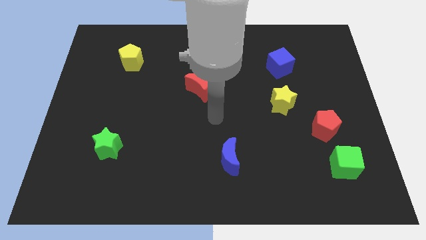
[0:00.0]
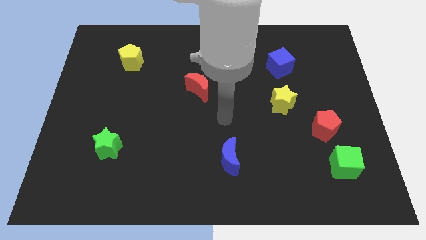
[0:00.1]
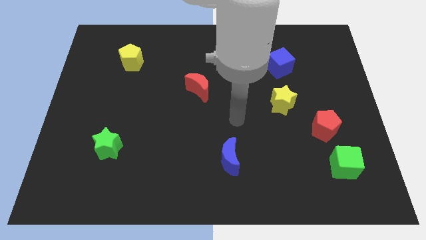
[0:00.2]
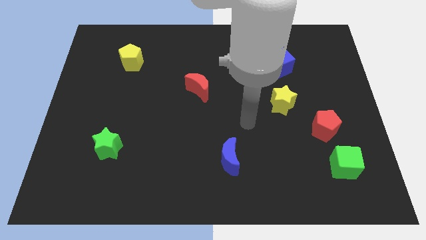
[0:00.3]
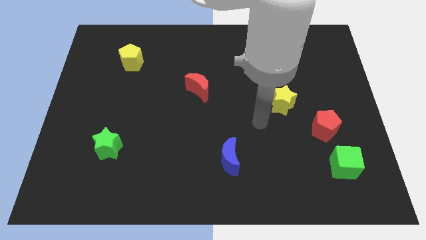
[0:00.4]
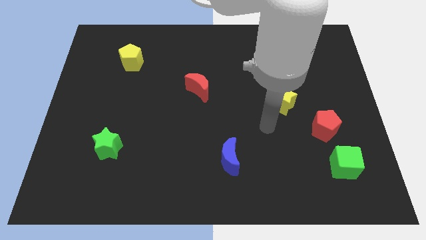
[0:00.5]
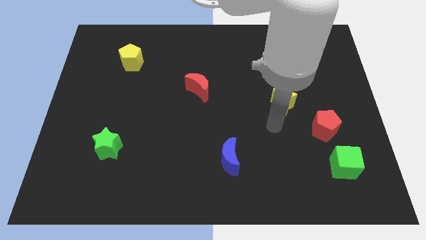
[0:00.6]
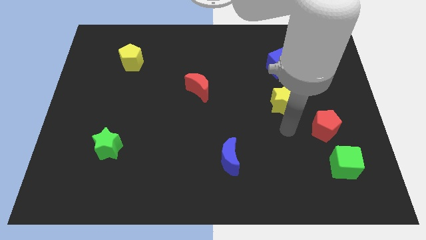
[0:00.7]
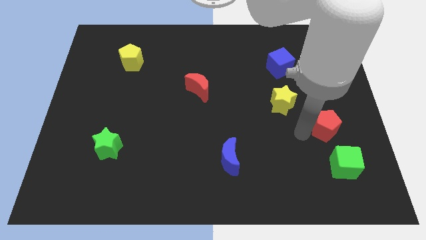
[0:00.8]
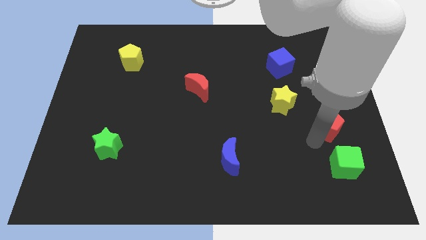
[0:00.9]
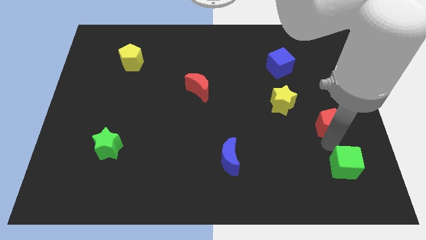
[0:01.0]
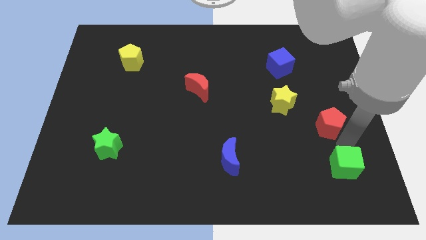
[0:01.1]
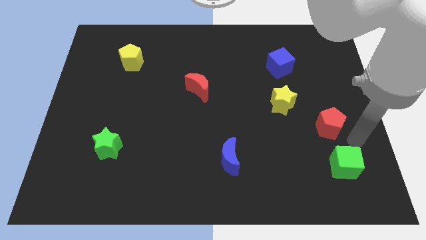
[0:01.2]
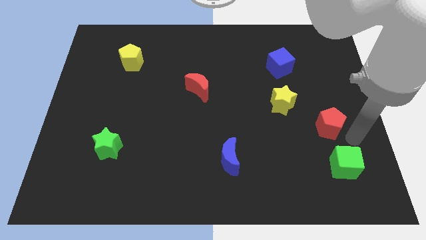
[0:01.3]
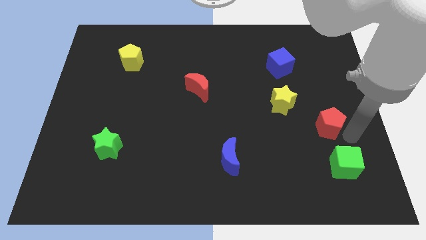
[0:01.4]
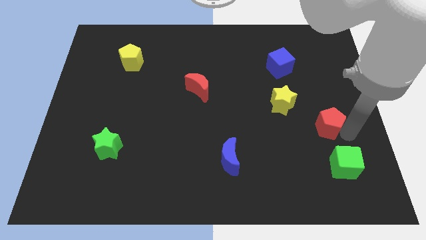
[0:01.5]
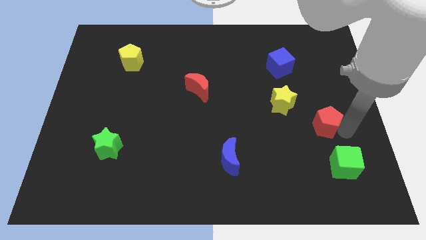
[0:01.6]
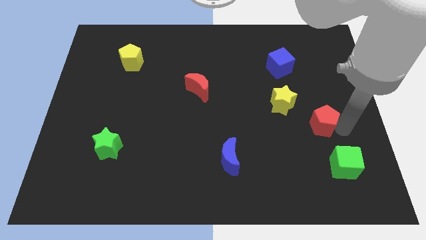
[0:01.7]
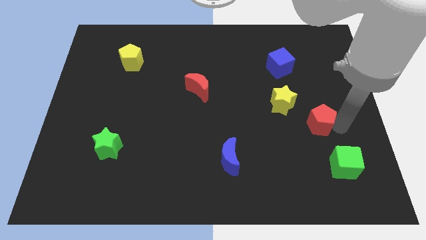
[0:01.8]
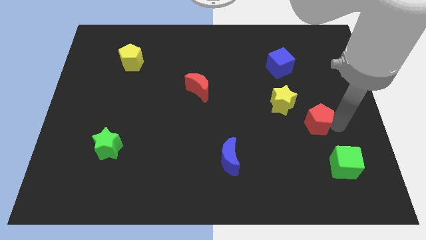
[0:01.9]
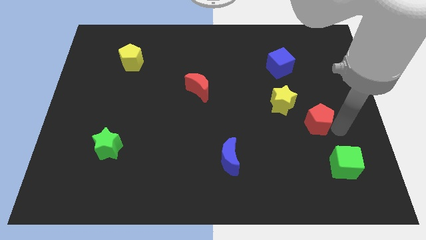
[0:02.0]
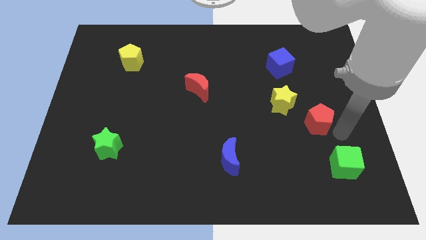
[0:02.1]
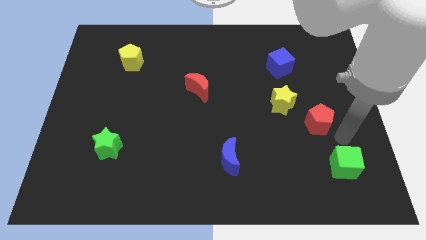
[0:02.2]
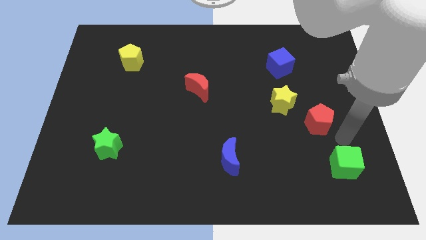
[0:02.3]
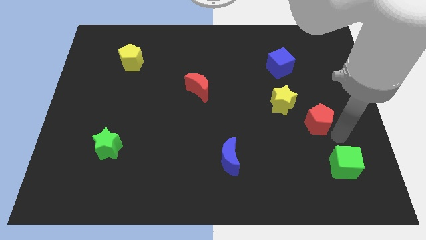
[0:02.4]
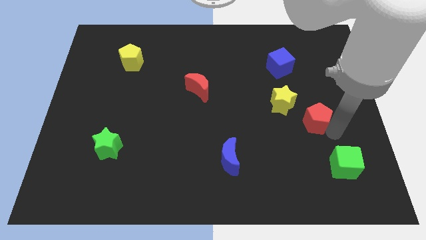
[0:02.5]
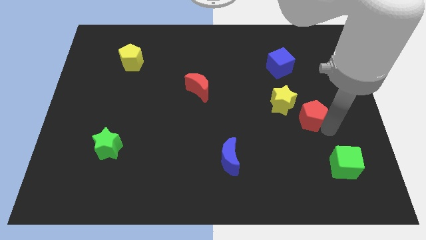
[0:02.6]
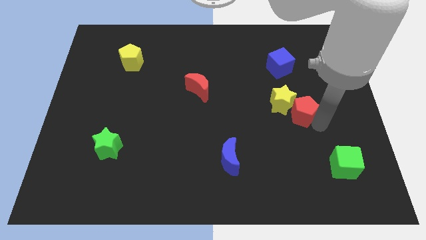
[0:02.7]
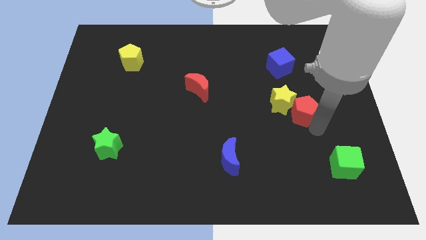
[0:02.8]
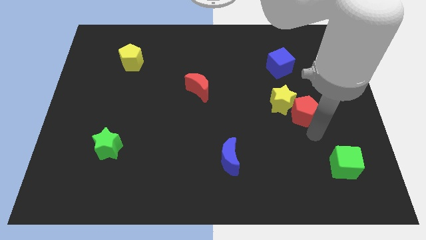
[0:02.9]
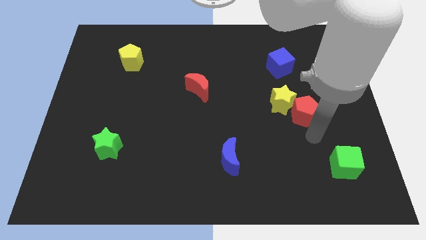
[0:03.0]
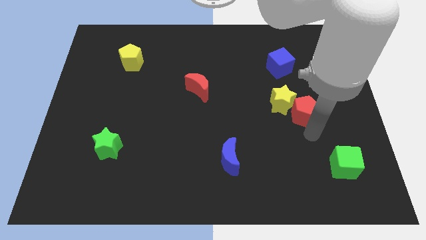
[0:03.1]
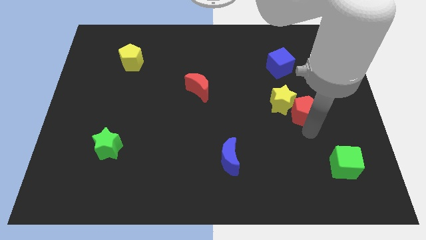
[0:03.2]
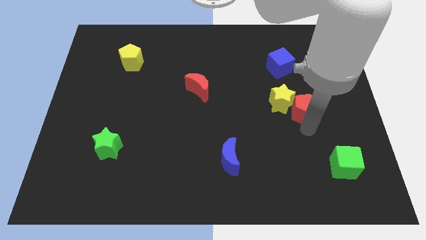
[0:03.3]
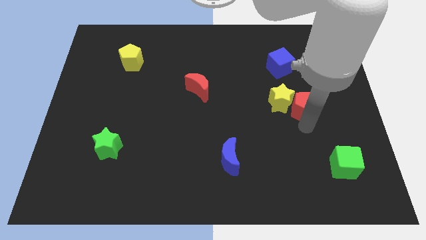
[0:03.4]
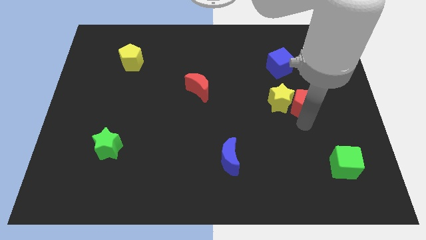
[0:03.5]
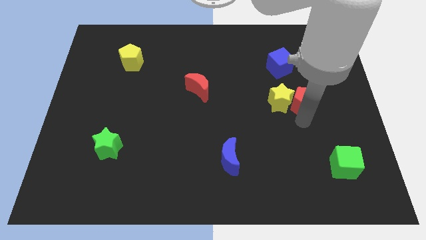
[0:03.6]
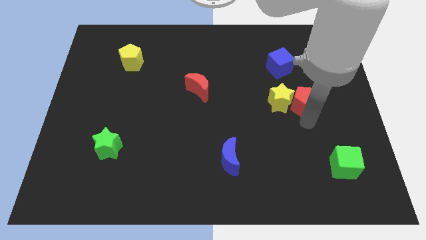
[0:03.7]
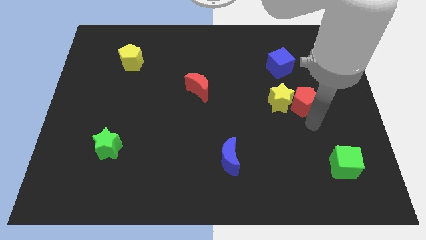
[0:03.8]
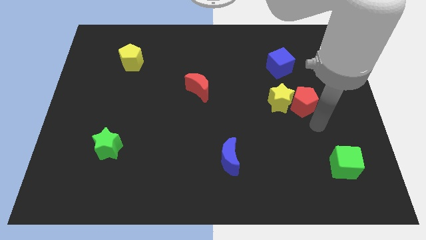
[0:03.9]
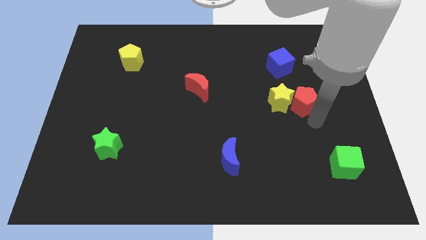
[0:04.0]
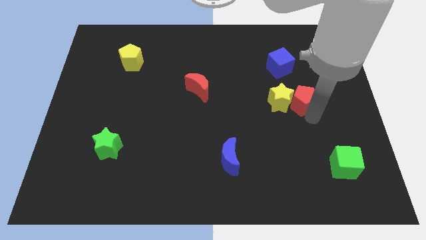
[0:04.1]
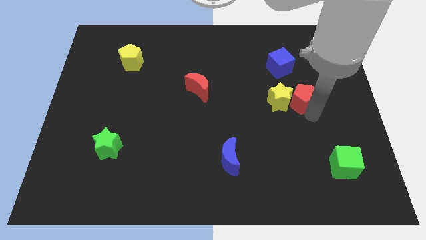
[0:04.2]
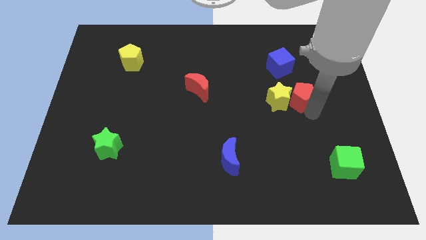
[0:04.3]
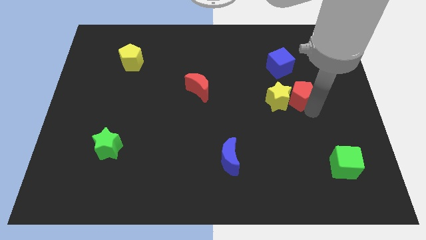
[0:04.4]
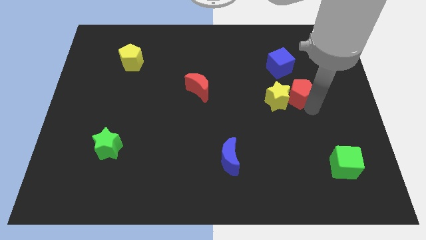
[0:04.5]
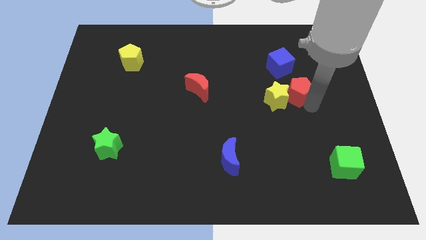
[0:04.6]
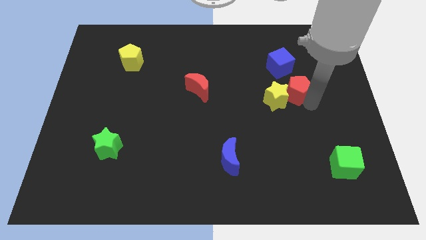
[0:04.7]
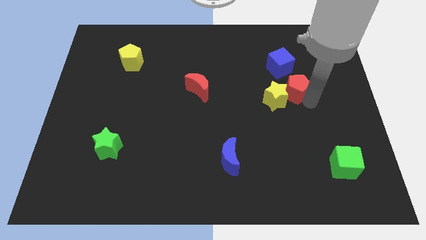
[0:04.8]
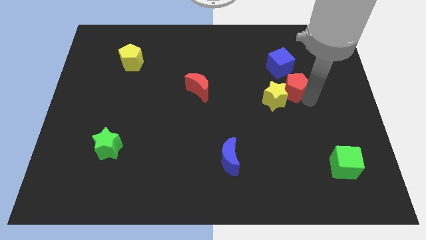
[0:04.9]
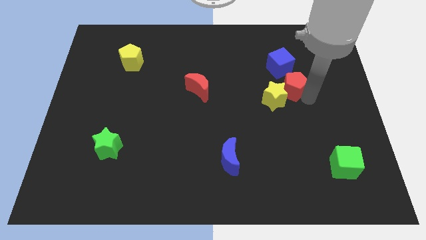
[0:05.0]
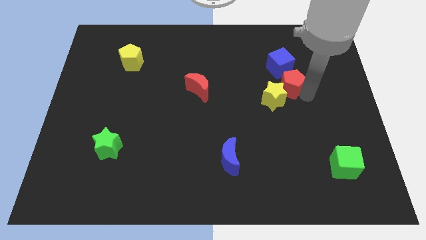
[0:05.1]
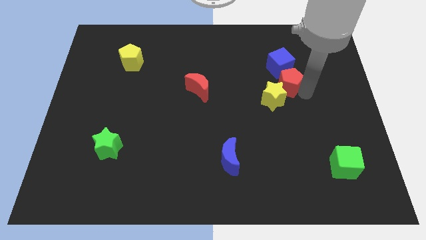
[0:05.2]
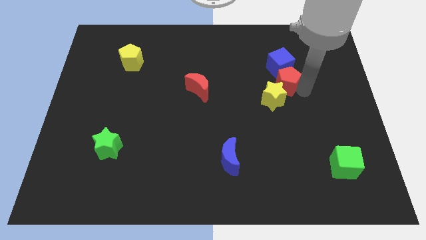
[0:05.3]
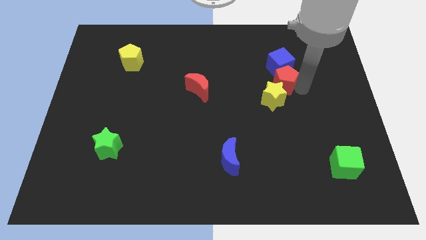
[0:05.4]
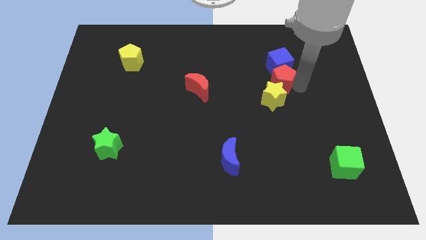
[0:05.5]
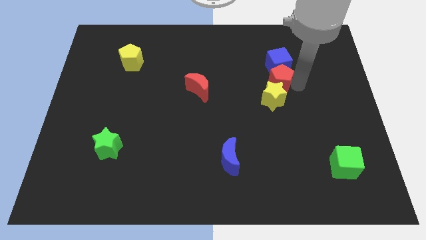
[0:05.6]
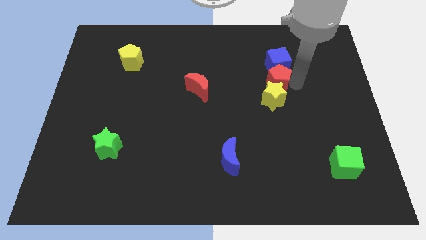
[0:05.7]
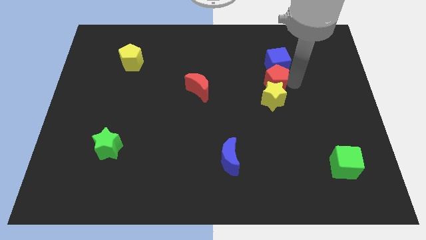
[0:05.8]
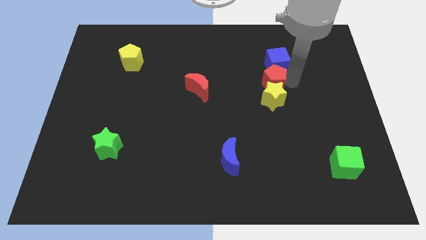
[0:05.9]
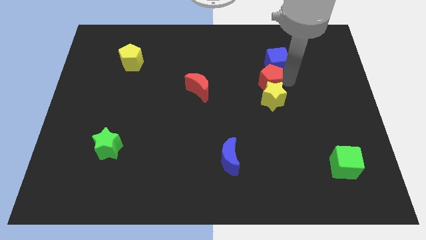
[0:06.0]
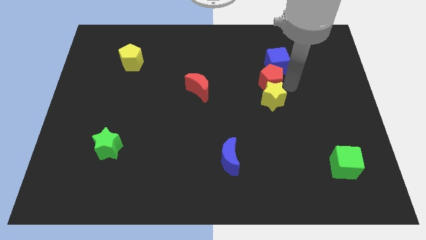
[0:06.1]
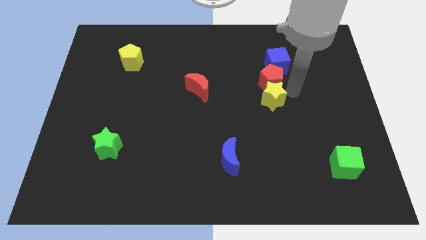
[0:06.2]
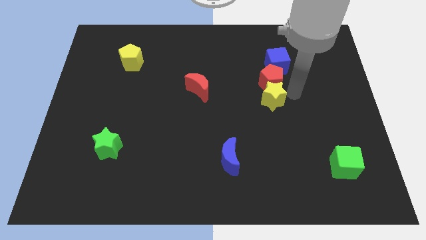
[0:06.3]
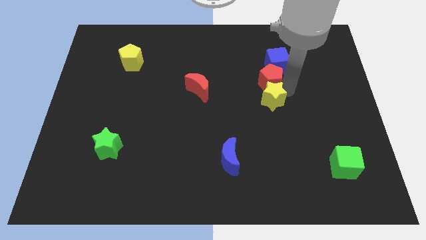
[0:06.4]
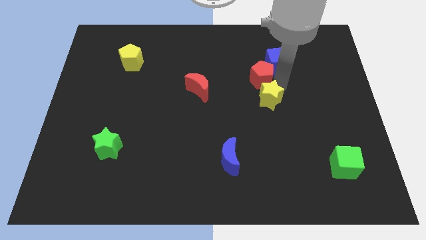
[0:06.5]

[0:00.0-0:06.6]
push the red pentagon upwards and left diagonally

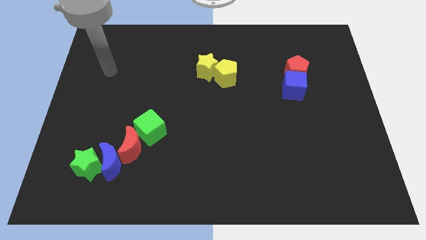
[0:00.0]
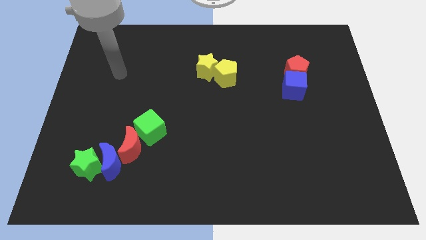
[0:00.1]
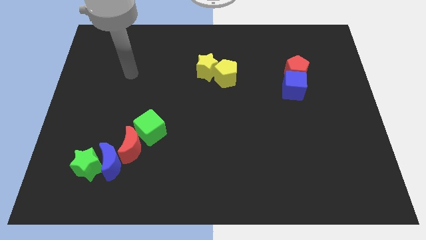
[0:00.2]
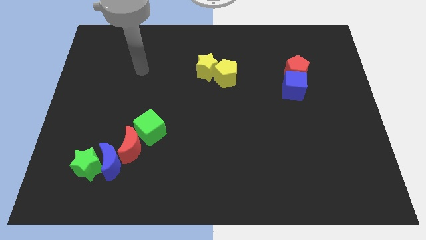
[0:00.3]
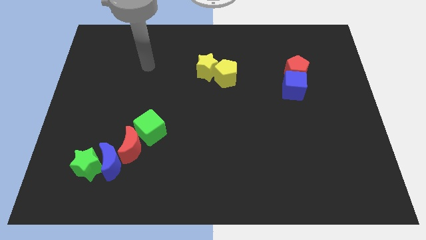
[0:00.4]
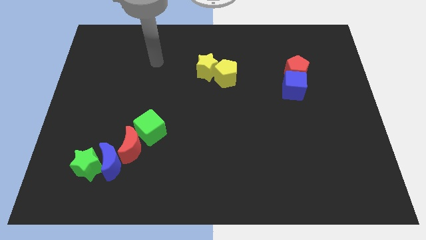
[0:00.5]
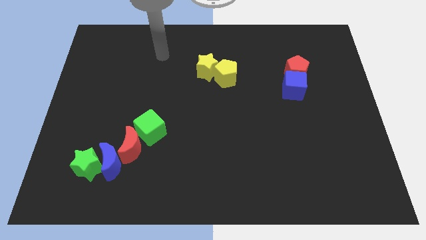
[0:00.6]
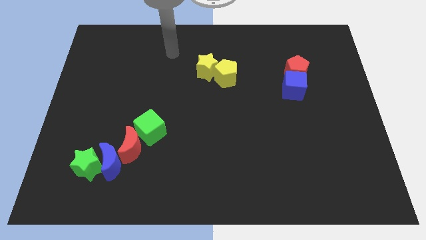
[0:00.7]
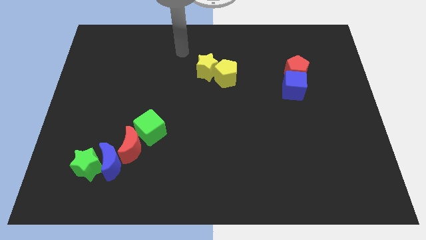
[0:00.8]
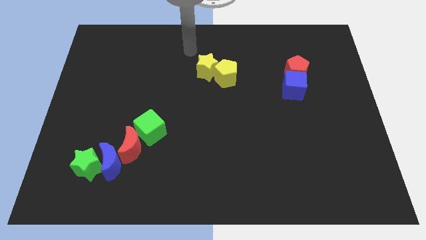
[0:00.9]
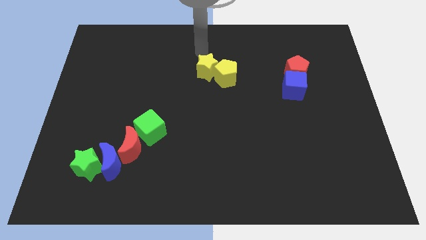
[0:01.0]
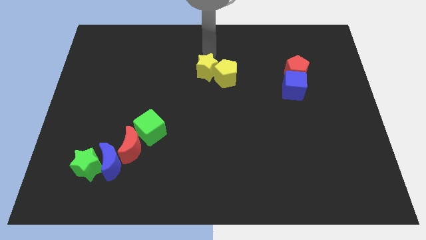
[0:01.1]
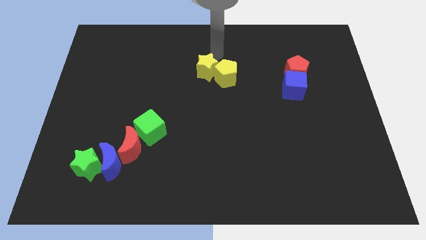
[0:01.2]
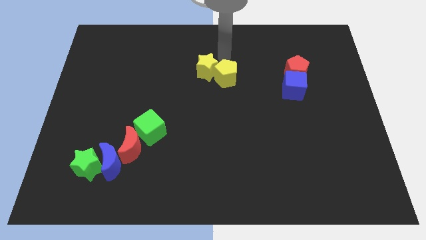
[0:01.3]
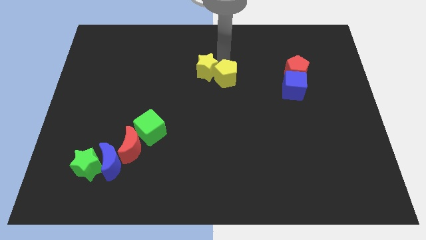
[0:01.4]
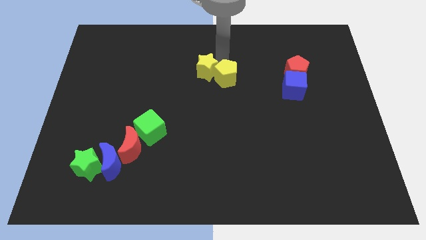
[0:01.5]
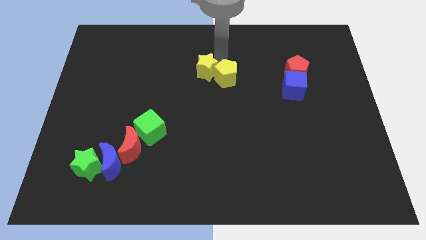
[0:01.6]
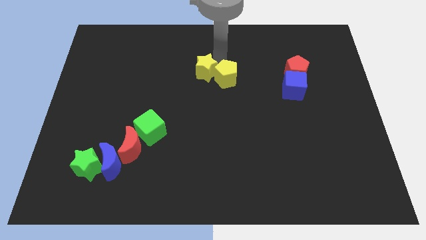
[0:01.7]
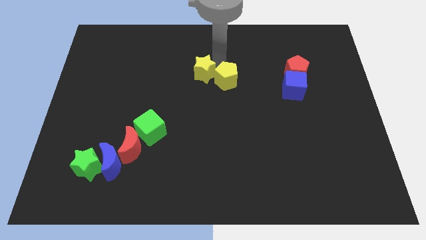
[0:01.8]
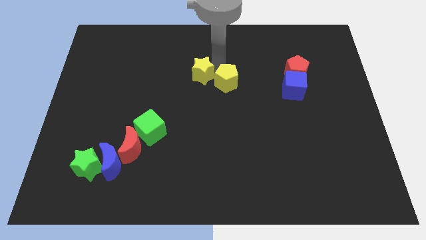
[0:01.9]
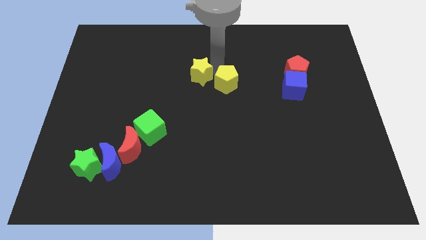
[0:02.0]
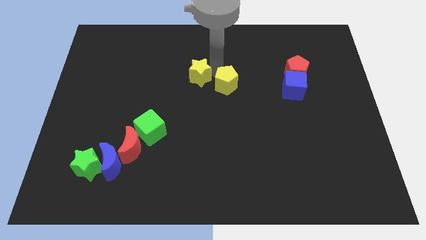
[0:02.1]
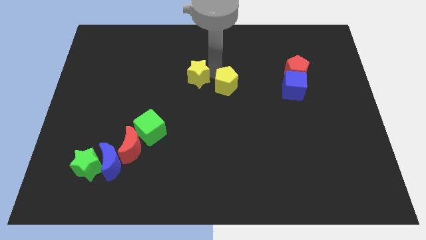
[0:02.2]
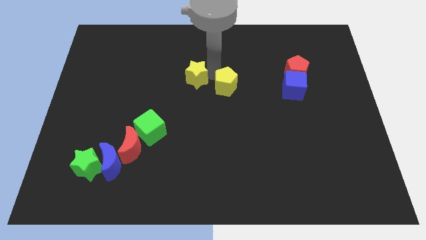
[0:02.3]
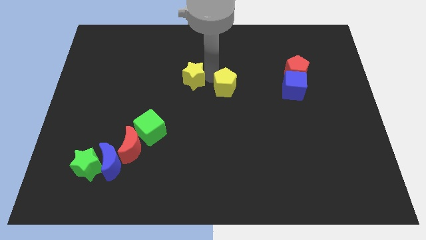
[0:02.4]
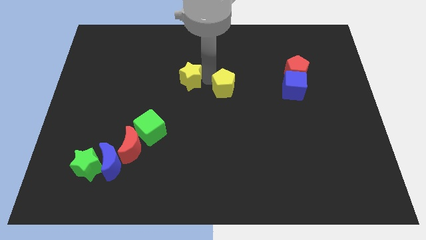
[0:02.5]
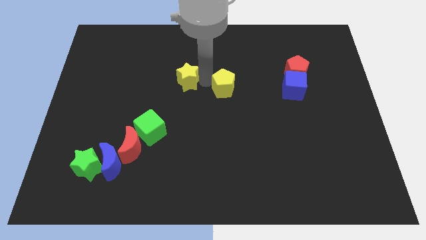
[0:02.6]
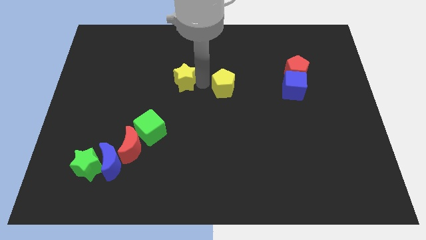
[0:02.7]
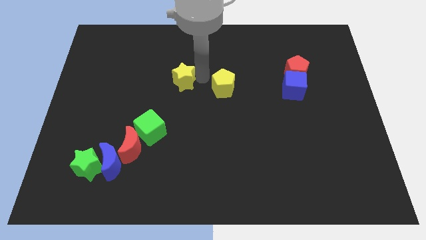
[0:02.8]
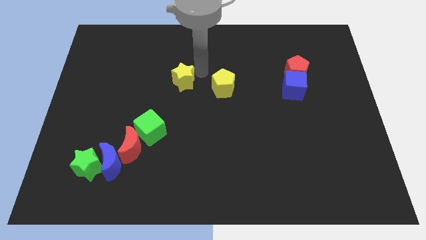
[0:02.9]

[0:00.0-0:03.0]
push the yellow star a bit down and to the left diagonally
